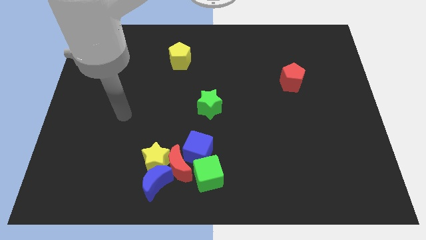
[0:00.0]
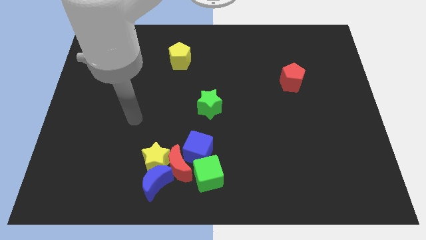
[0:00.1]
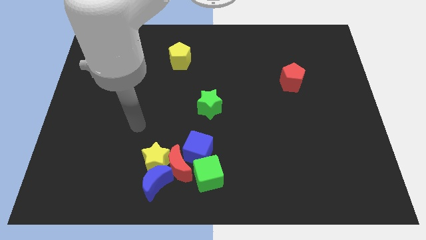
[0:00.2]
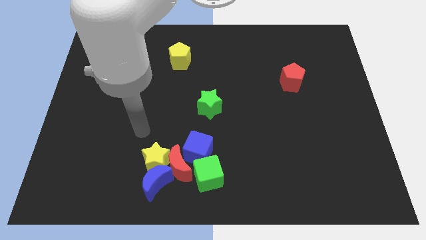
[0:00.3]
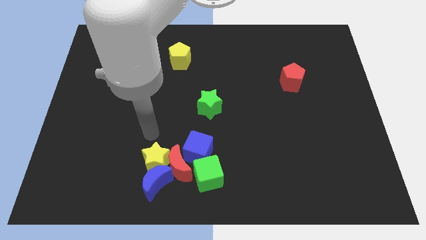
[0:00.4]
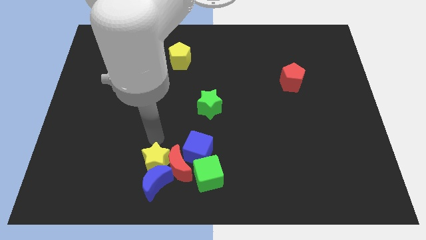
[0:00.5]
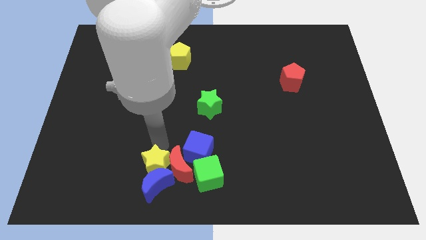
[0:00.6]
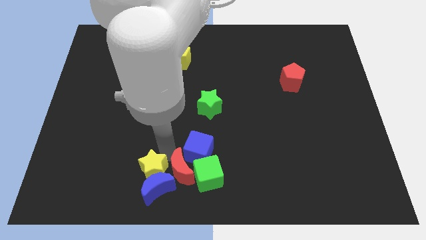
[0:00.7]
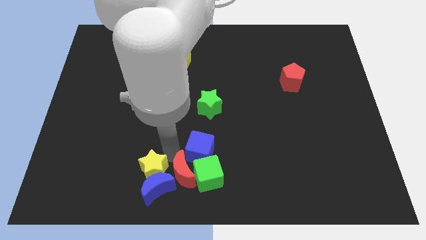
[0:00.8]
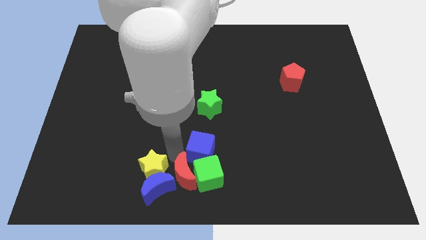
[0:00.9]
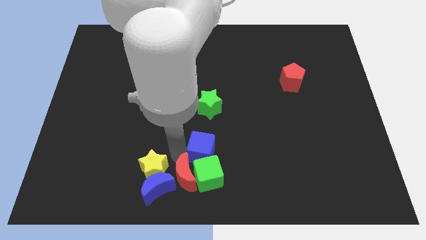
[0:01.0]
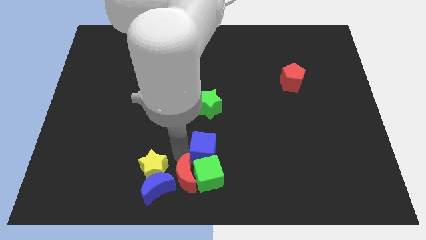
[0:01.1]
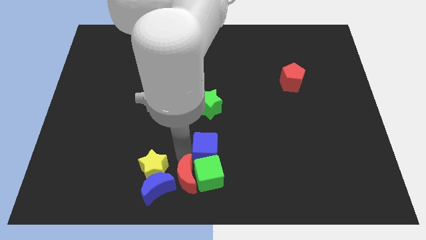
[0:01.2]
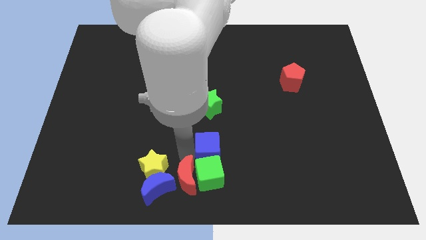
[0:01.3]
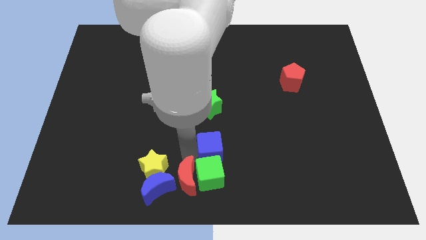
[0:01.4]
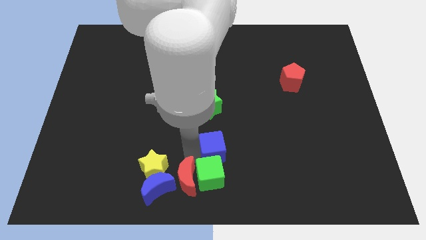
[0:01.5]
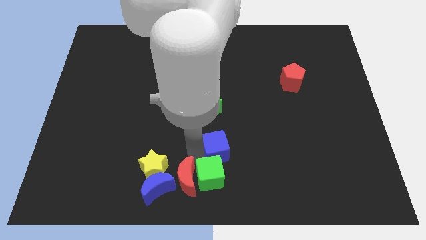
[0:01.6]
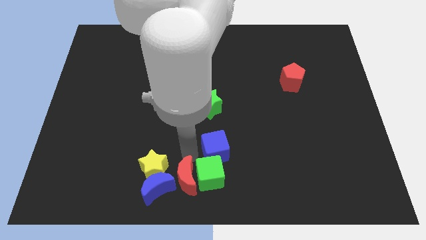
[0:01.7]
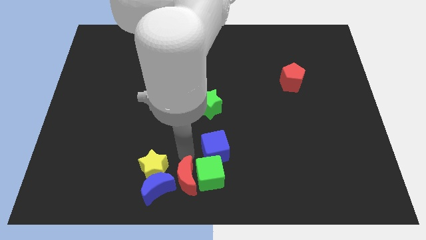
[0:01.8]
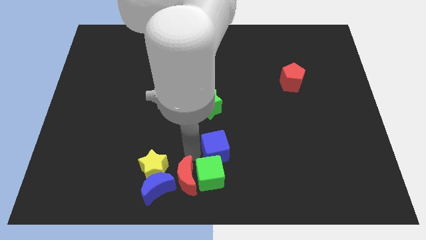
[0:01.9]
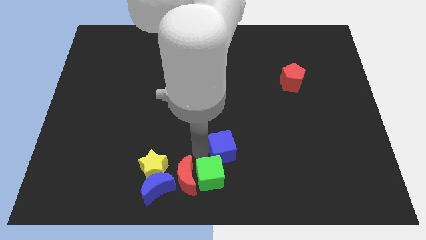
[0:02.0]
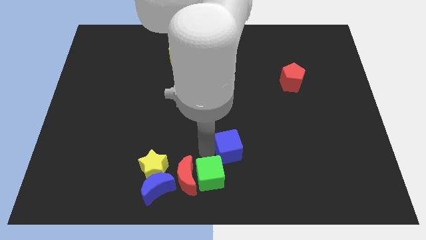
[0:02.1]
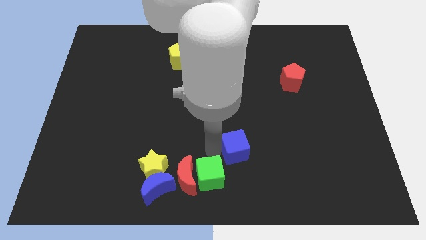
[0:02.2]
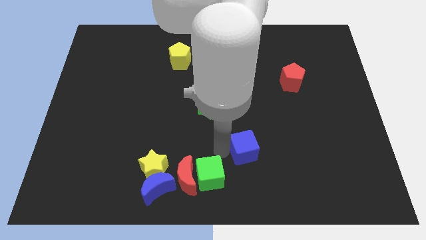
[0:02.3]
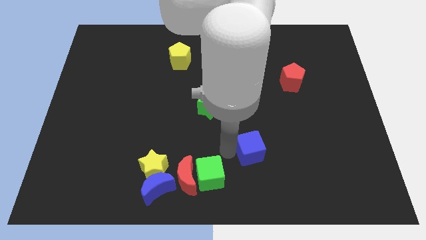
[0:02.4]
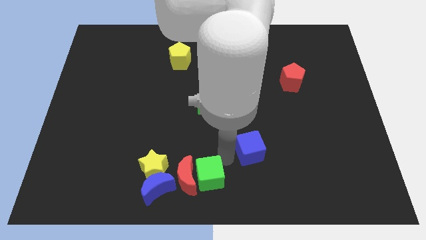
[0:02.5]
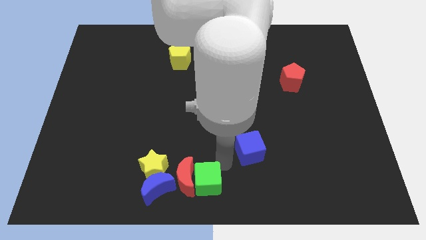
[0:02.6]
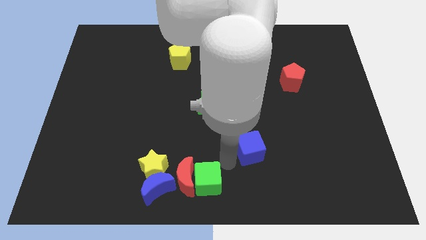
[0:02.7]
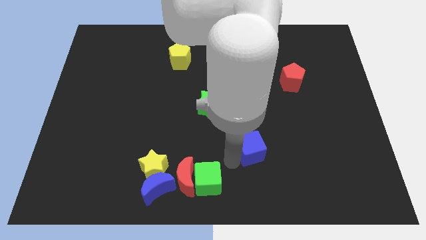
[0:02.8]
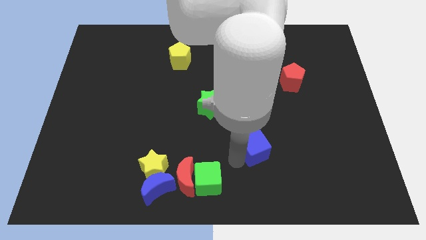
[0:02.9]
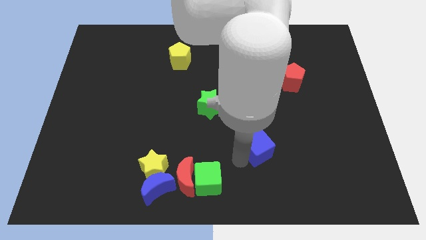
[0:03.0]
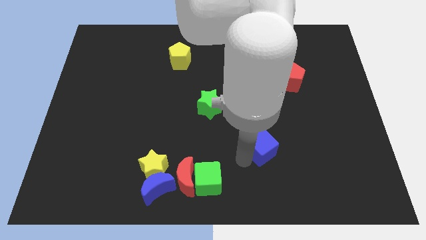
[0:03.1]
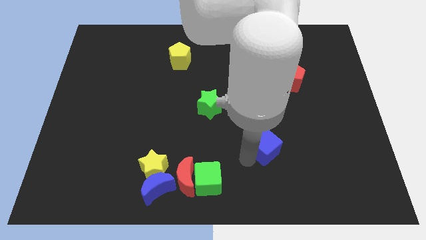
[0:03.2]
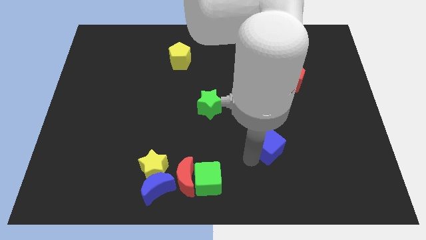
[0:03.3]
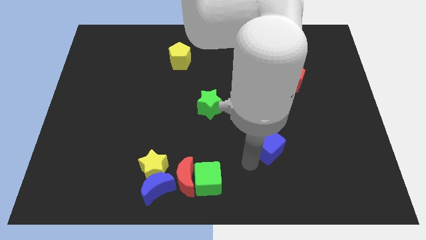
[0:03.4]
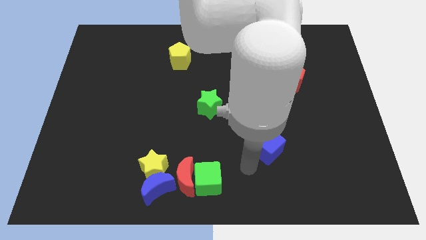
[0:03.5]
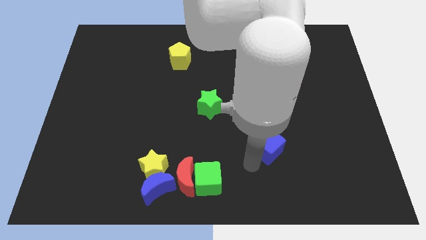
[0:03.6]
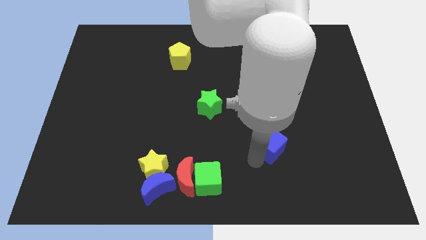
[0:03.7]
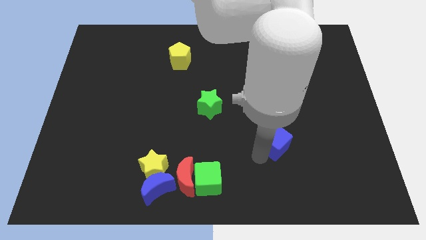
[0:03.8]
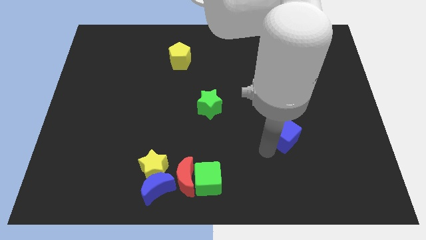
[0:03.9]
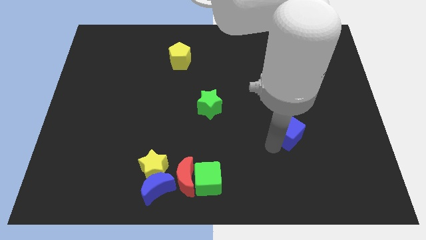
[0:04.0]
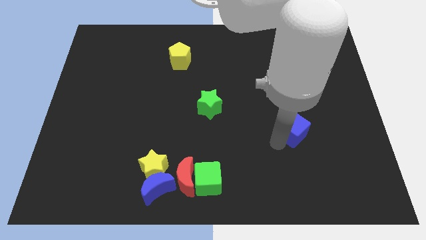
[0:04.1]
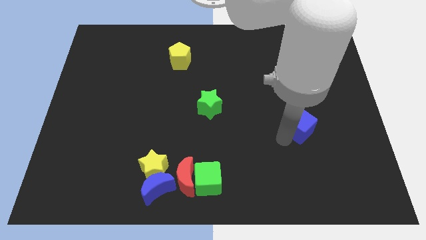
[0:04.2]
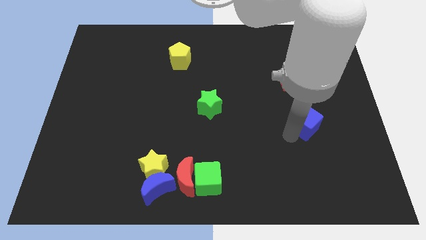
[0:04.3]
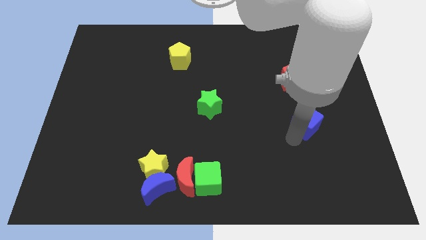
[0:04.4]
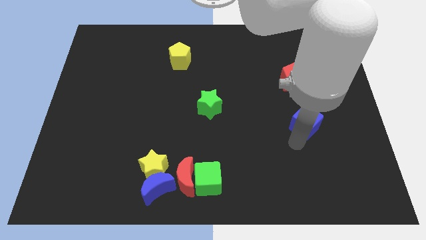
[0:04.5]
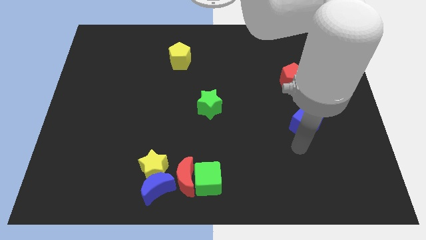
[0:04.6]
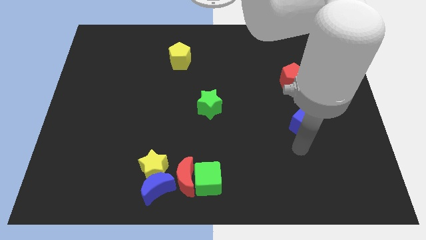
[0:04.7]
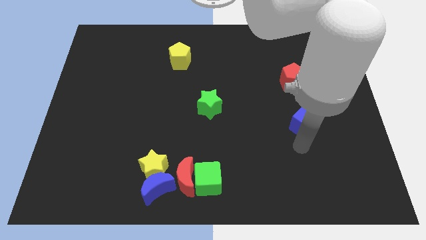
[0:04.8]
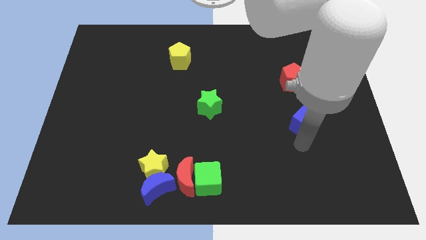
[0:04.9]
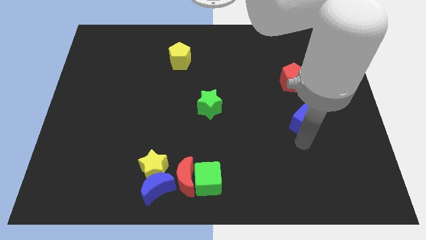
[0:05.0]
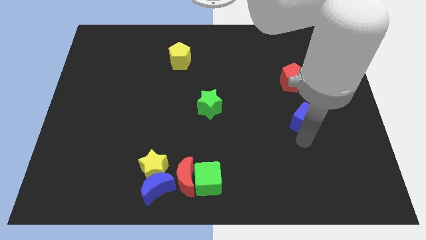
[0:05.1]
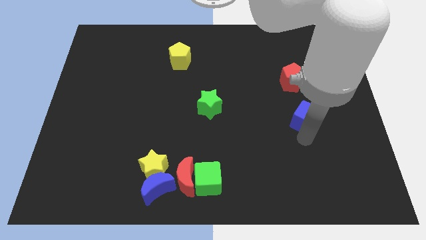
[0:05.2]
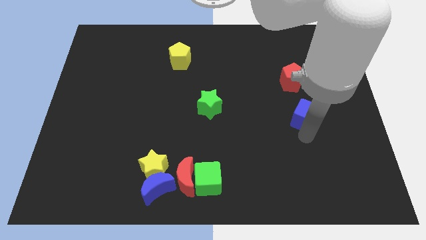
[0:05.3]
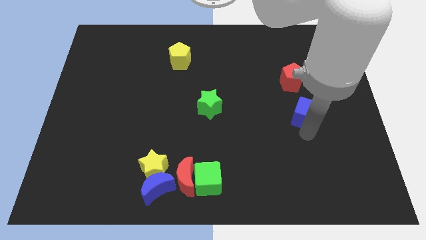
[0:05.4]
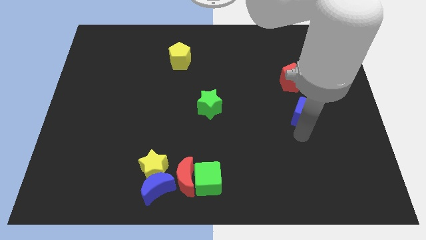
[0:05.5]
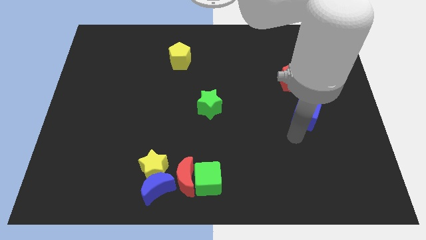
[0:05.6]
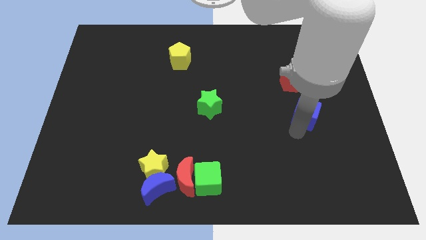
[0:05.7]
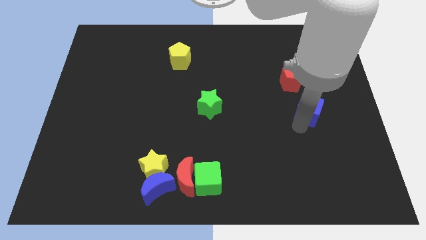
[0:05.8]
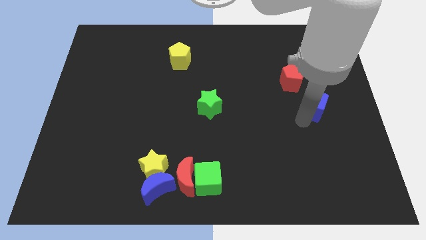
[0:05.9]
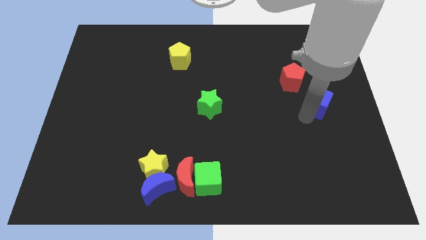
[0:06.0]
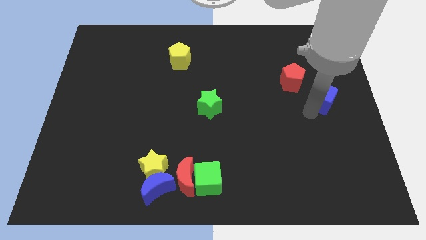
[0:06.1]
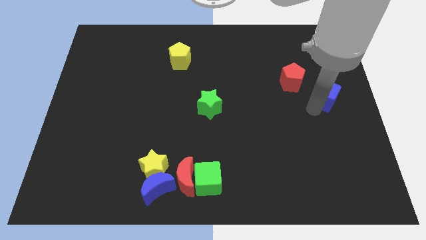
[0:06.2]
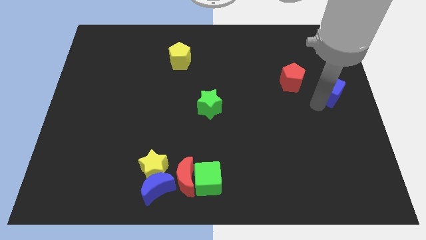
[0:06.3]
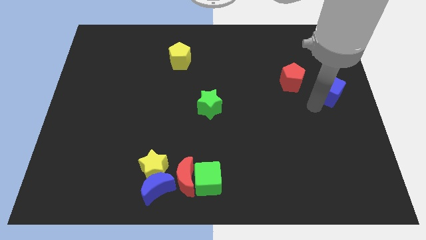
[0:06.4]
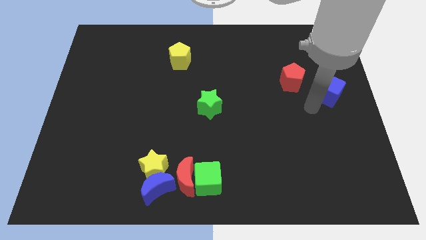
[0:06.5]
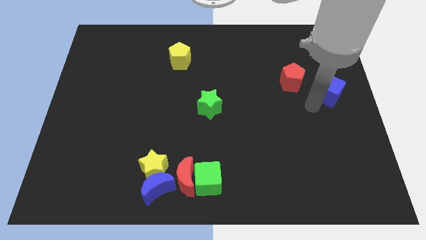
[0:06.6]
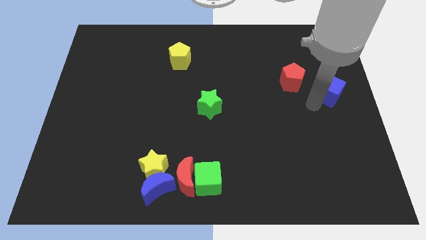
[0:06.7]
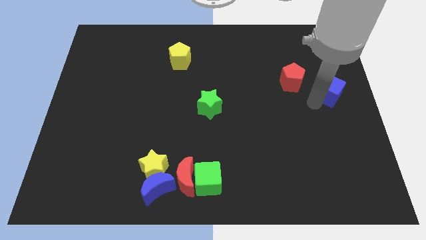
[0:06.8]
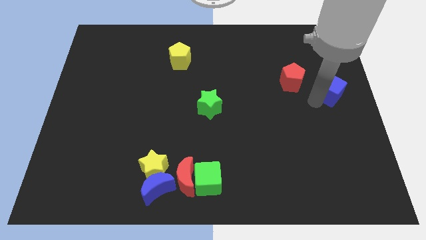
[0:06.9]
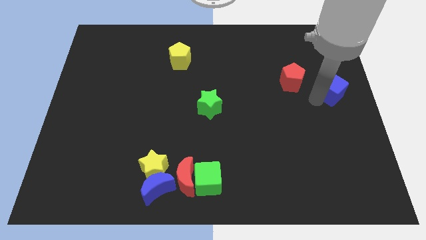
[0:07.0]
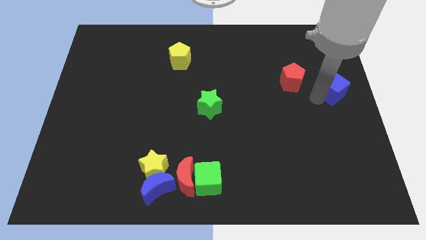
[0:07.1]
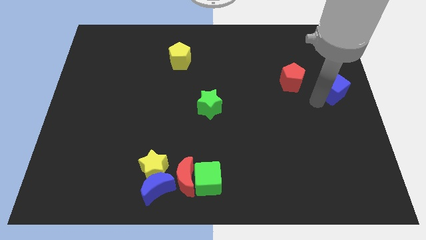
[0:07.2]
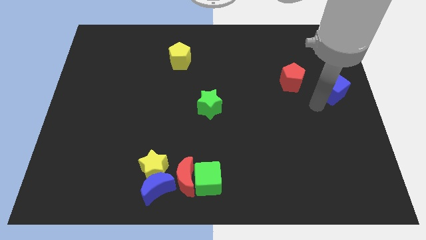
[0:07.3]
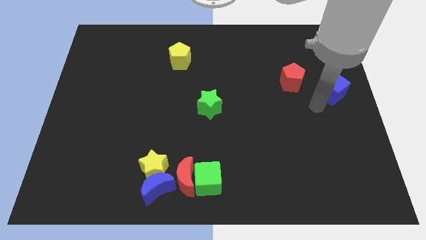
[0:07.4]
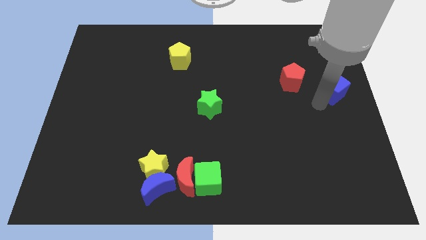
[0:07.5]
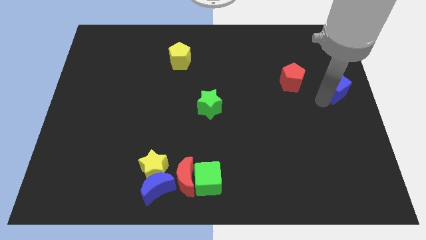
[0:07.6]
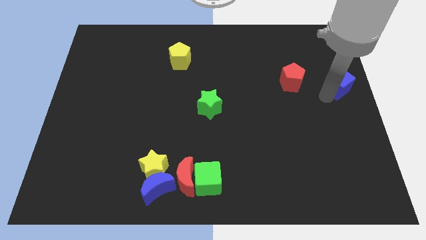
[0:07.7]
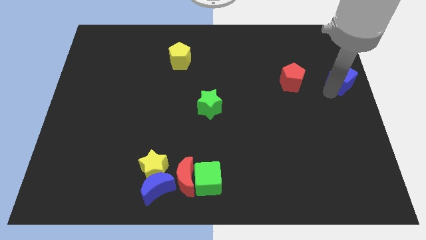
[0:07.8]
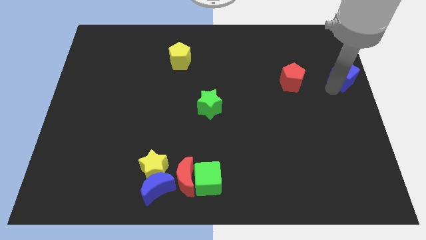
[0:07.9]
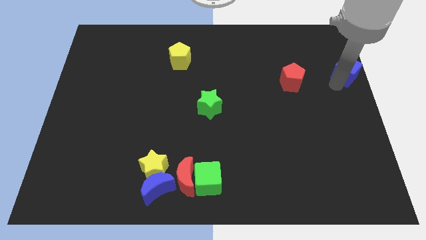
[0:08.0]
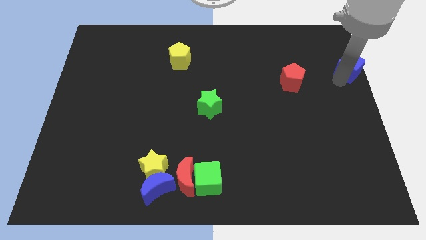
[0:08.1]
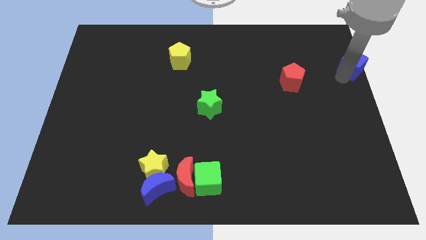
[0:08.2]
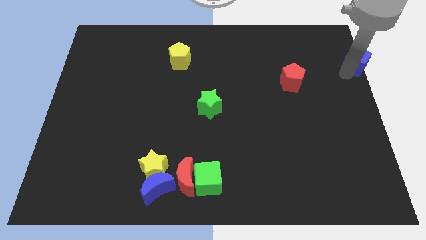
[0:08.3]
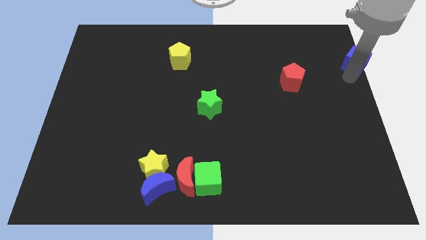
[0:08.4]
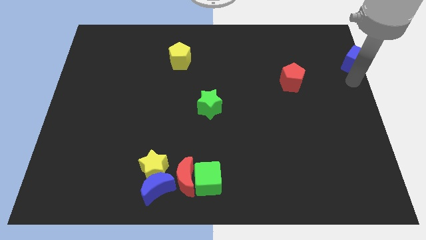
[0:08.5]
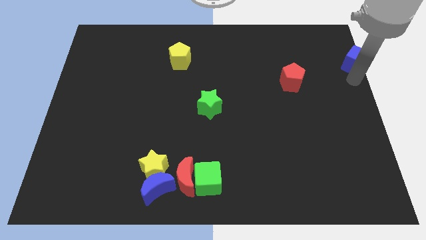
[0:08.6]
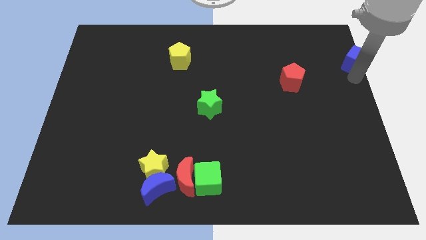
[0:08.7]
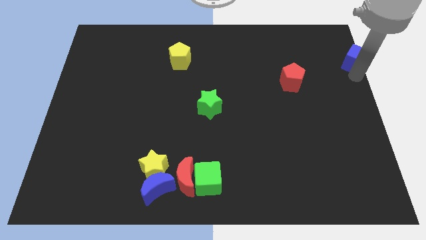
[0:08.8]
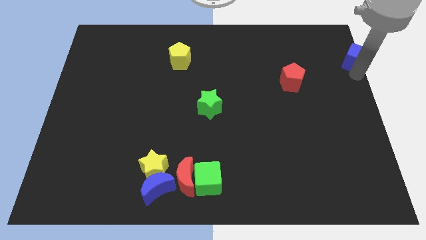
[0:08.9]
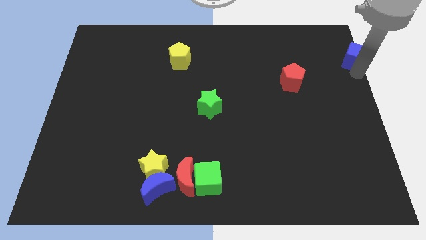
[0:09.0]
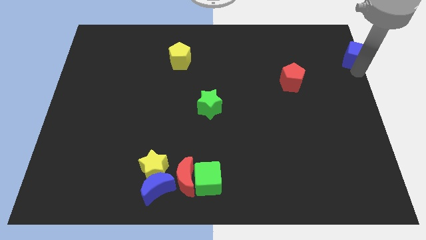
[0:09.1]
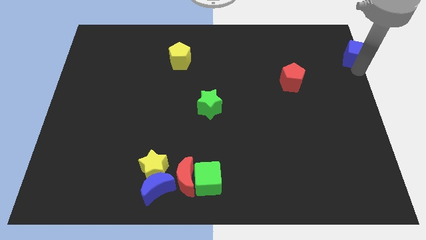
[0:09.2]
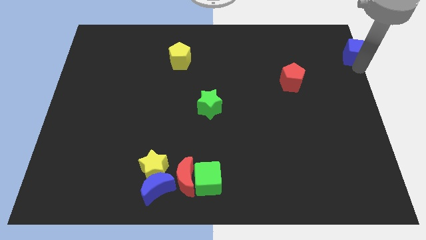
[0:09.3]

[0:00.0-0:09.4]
move the blue cube to the top right corner
